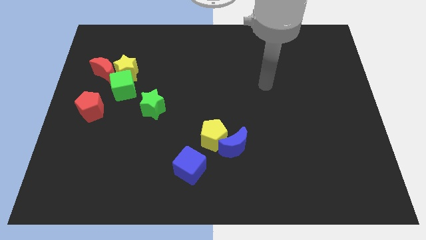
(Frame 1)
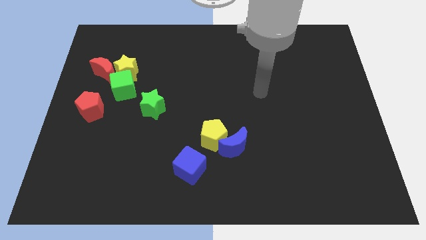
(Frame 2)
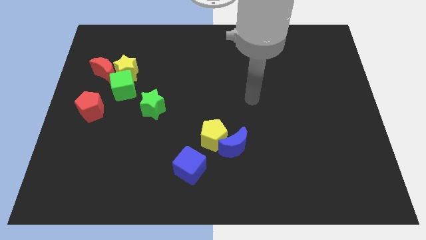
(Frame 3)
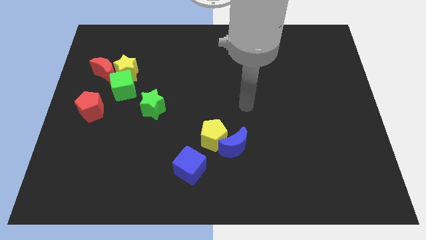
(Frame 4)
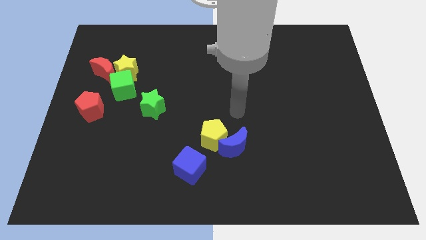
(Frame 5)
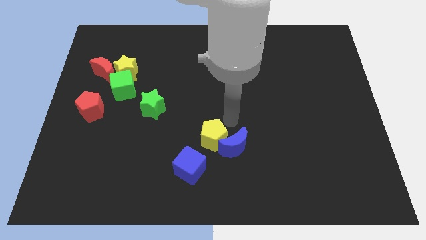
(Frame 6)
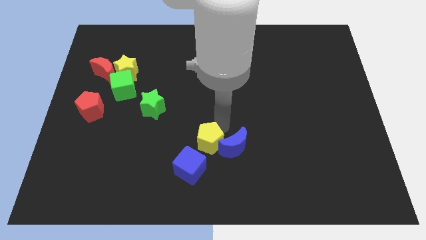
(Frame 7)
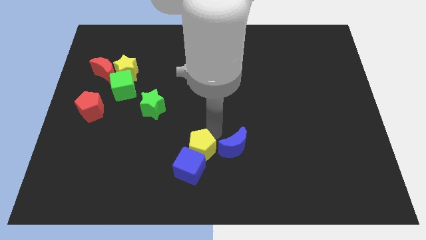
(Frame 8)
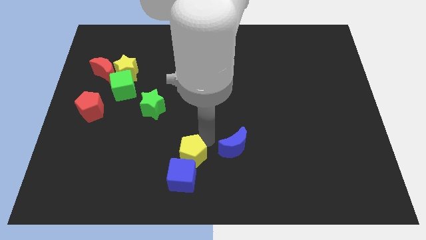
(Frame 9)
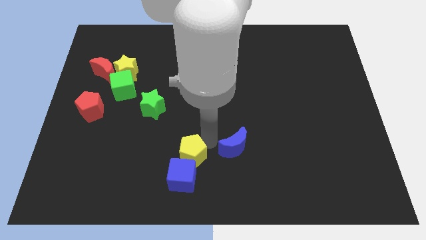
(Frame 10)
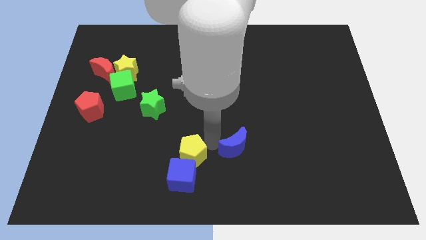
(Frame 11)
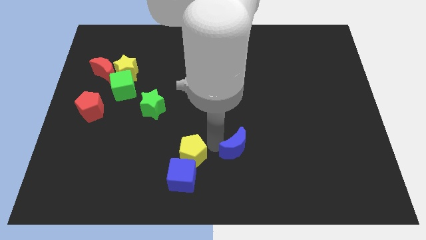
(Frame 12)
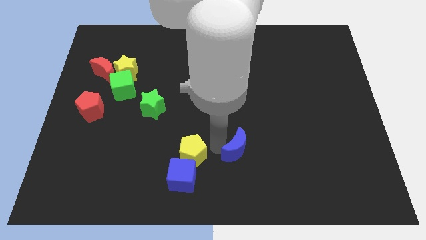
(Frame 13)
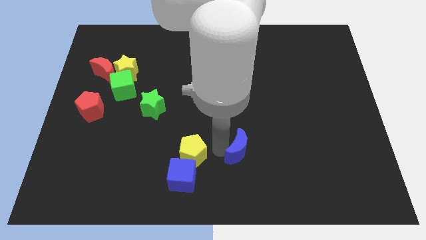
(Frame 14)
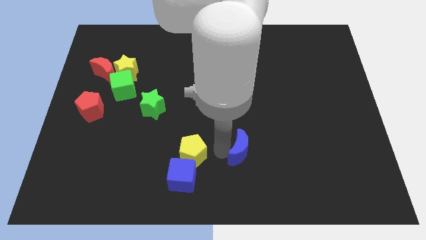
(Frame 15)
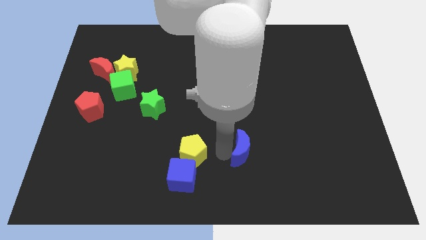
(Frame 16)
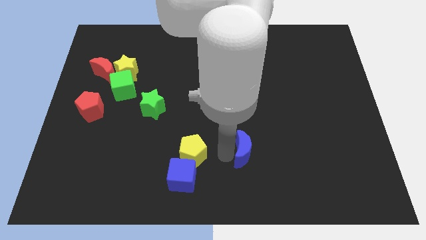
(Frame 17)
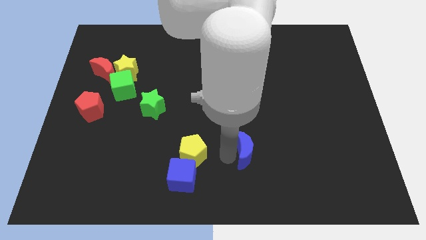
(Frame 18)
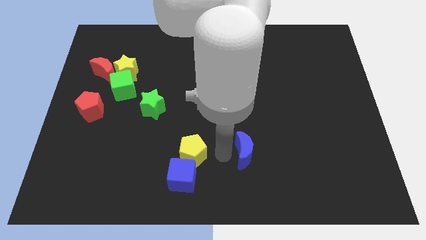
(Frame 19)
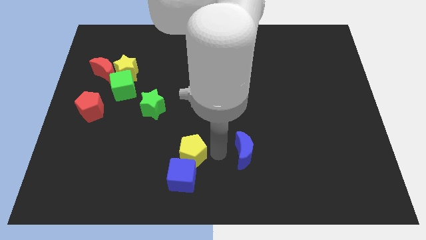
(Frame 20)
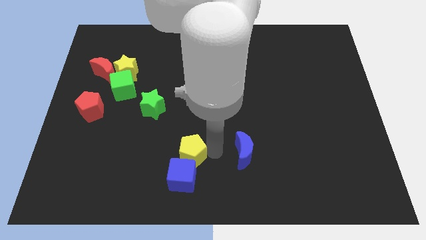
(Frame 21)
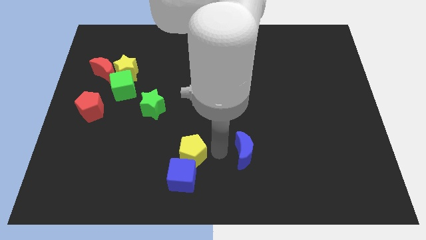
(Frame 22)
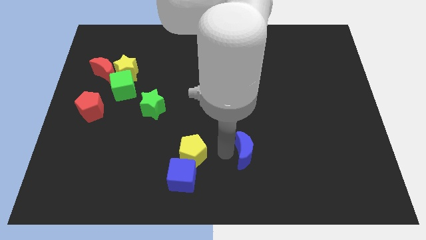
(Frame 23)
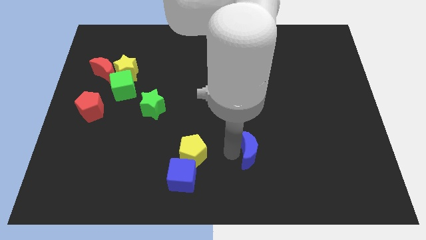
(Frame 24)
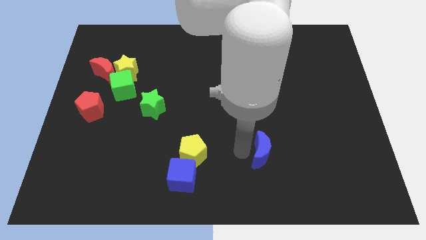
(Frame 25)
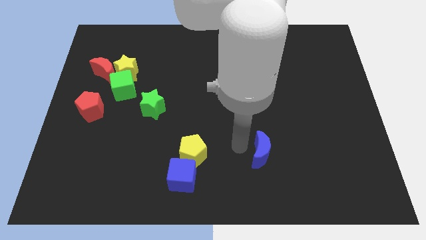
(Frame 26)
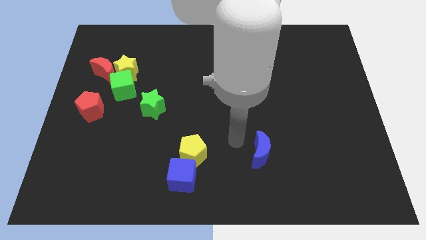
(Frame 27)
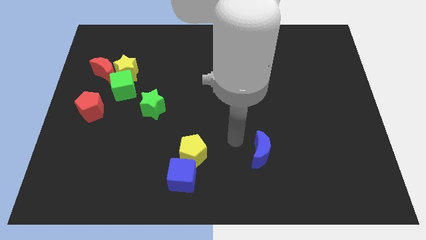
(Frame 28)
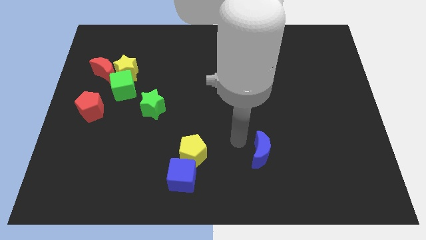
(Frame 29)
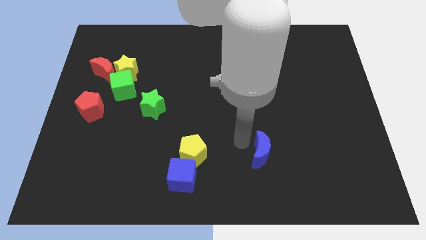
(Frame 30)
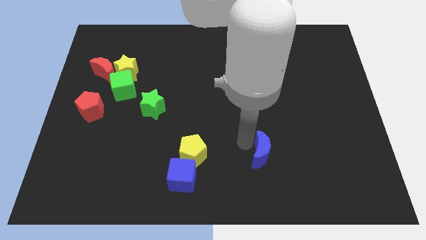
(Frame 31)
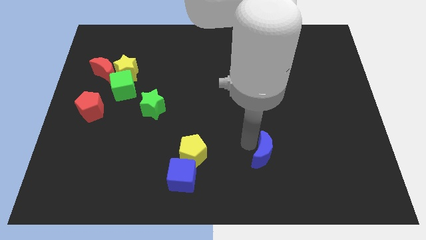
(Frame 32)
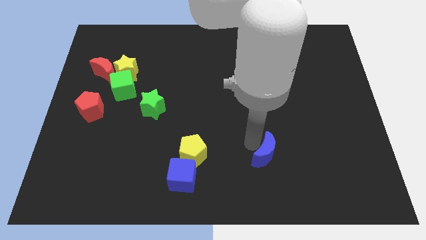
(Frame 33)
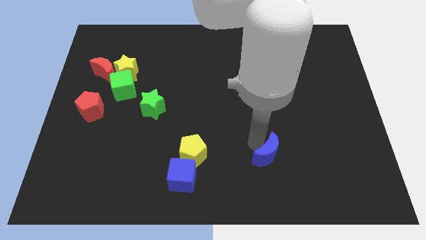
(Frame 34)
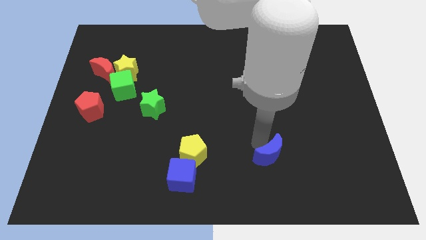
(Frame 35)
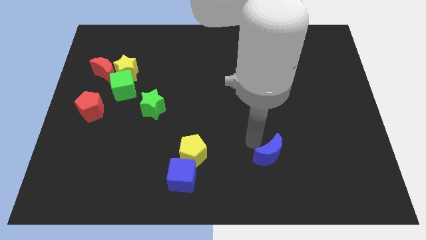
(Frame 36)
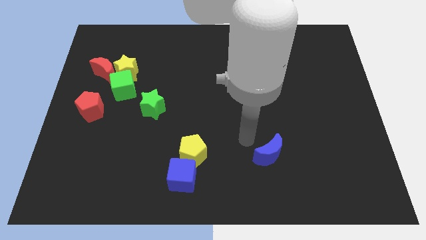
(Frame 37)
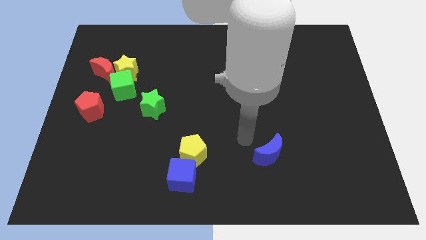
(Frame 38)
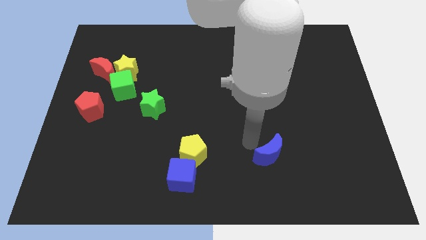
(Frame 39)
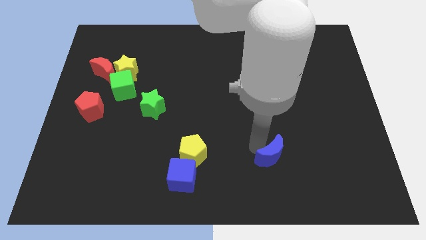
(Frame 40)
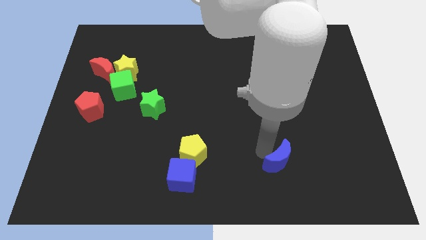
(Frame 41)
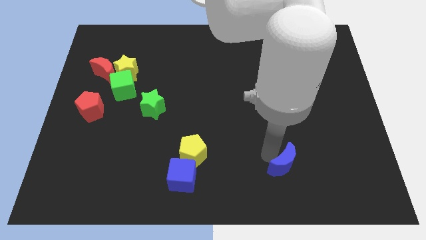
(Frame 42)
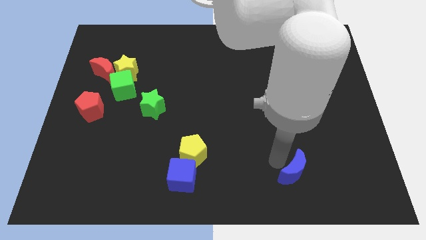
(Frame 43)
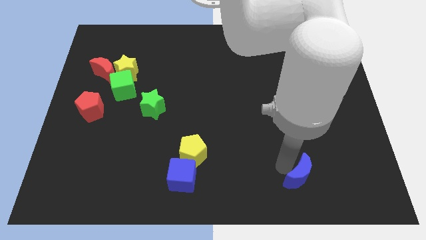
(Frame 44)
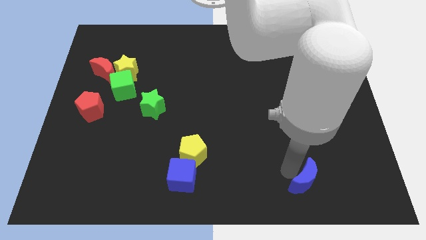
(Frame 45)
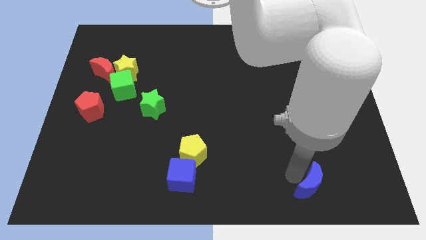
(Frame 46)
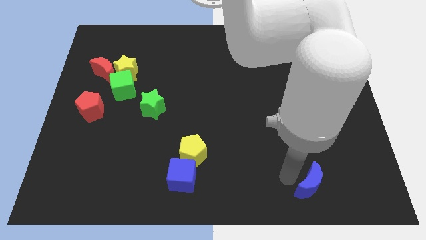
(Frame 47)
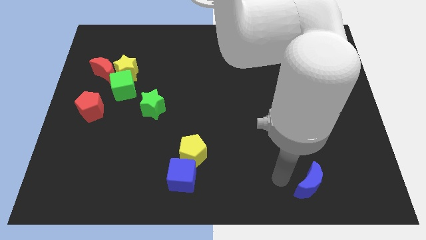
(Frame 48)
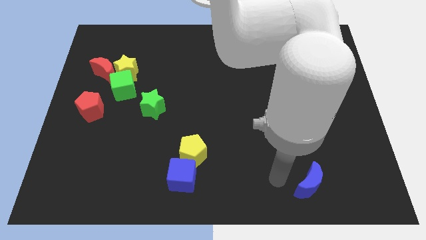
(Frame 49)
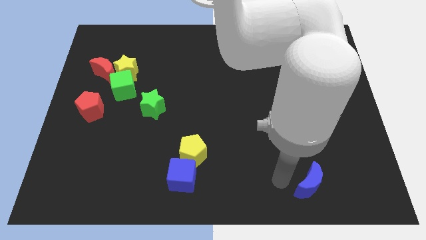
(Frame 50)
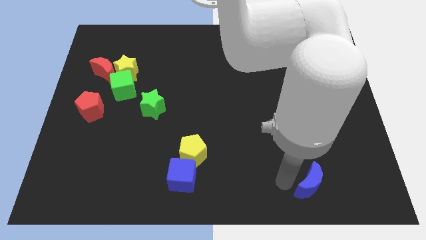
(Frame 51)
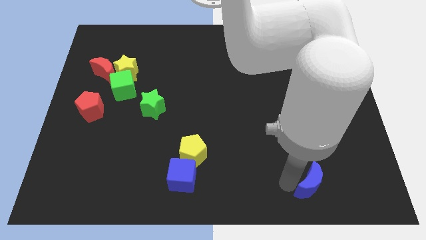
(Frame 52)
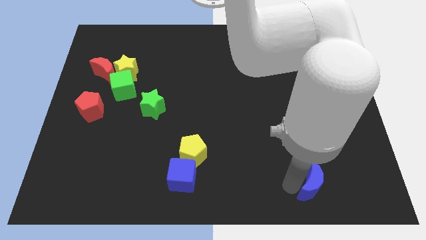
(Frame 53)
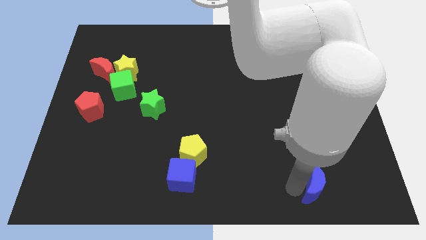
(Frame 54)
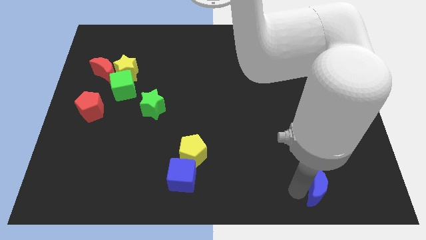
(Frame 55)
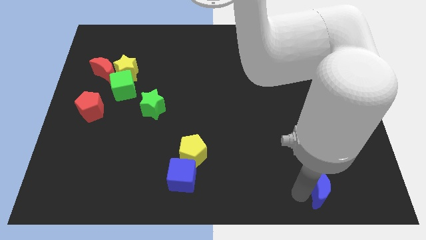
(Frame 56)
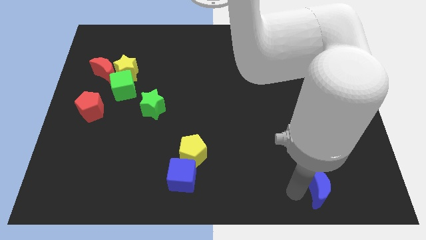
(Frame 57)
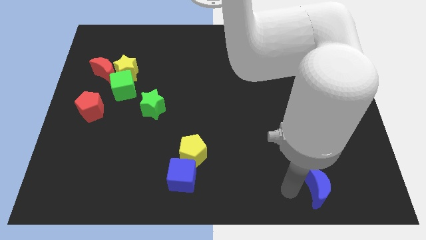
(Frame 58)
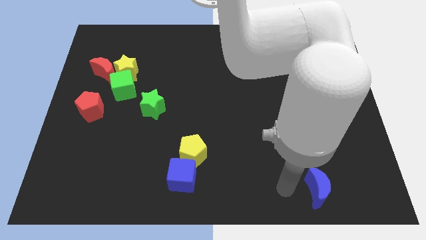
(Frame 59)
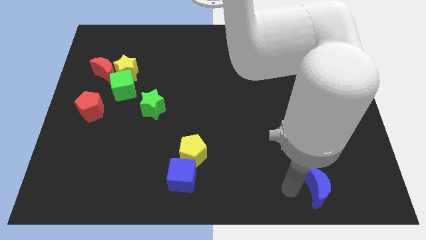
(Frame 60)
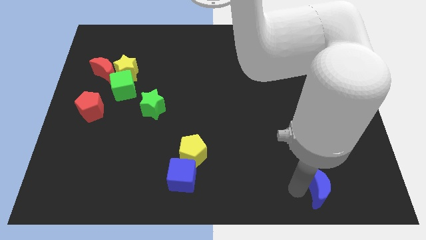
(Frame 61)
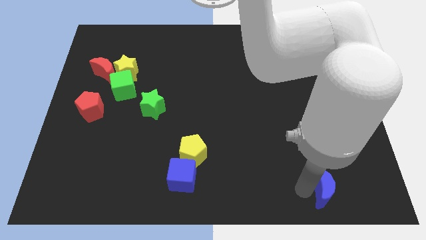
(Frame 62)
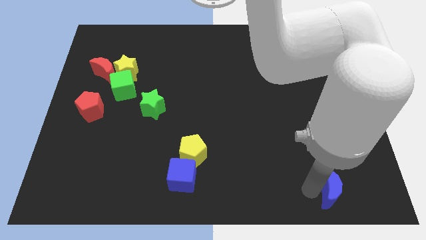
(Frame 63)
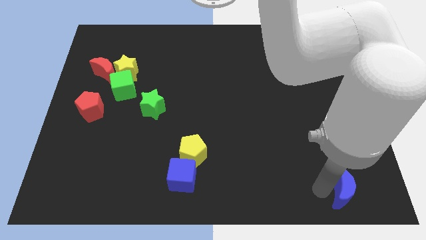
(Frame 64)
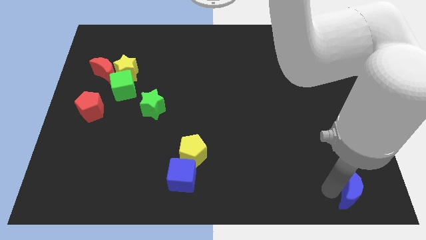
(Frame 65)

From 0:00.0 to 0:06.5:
move the blue moon to the bottom right
